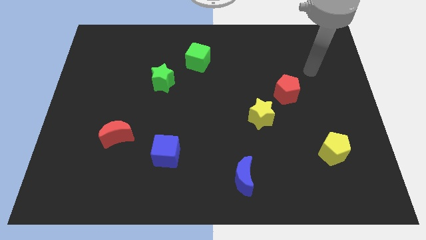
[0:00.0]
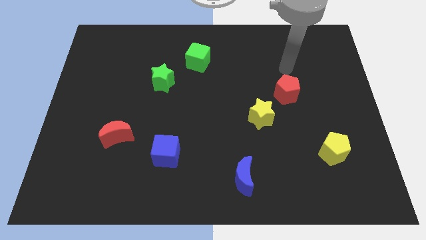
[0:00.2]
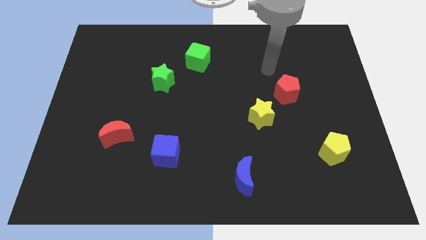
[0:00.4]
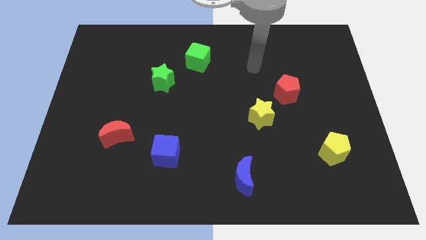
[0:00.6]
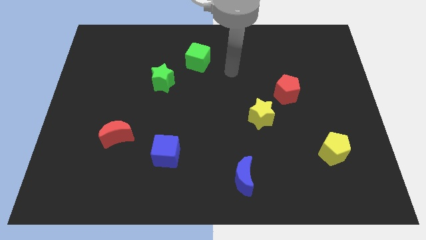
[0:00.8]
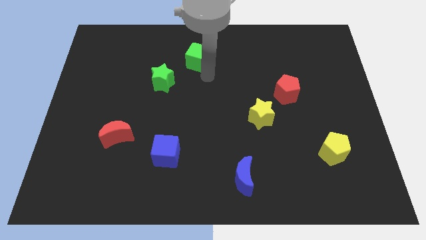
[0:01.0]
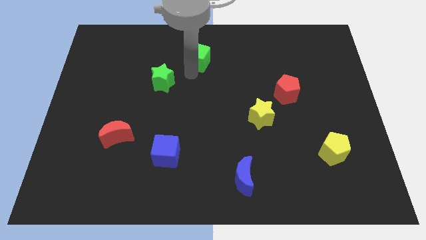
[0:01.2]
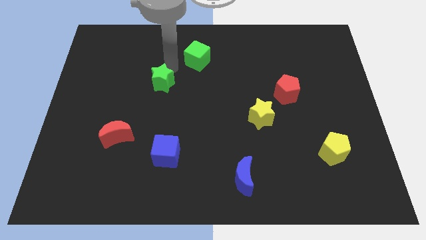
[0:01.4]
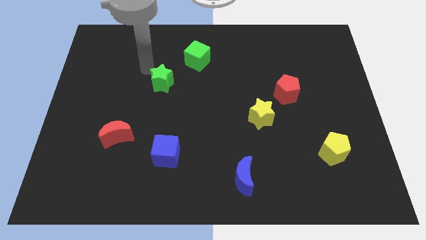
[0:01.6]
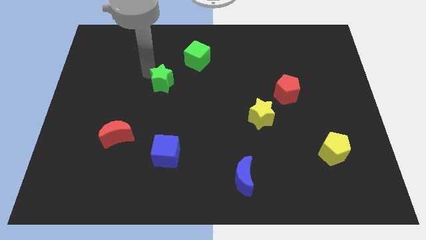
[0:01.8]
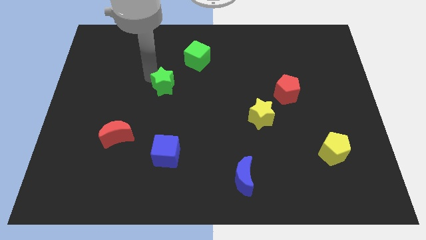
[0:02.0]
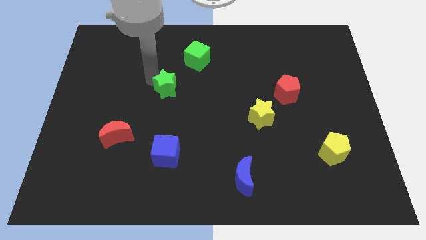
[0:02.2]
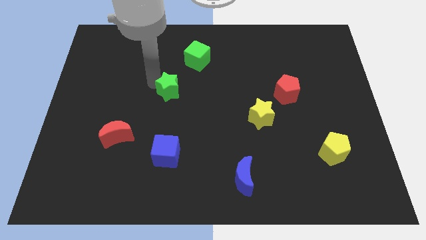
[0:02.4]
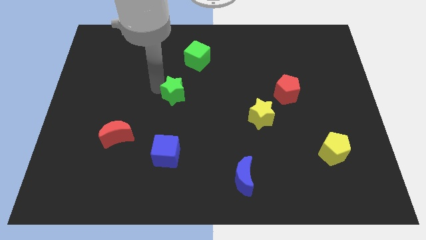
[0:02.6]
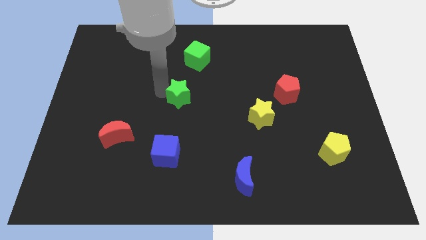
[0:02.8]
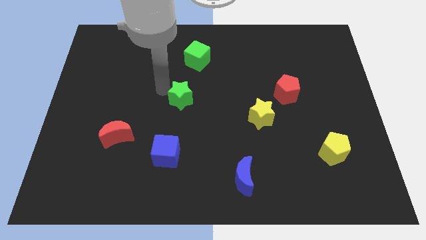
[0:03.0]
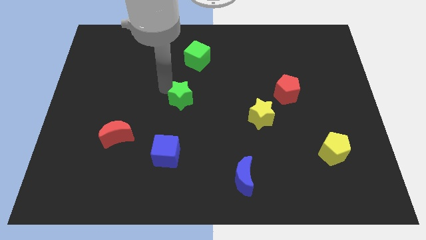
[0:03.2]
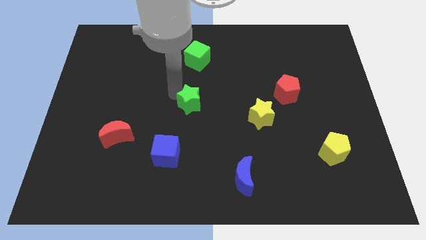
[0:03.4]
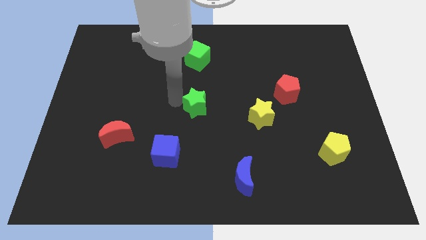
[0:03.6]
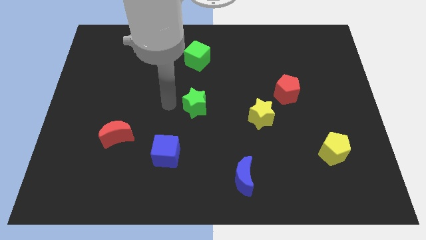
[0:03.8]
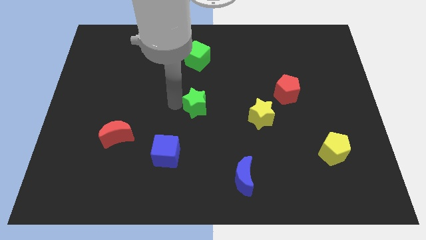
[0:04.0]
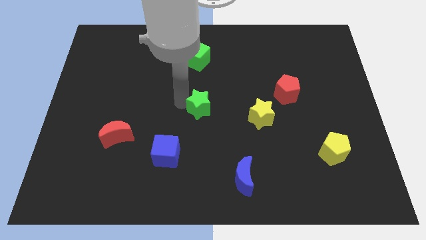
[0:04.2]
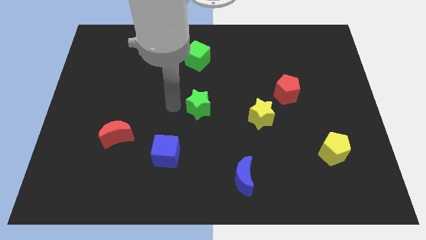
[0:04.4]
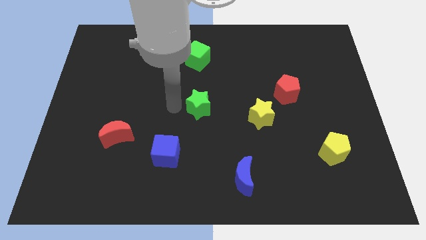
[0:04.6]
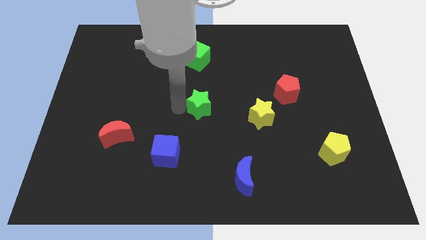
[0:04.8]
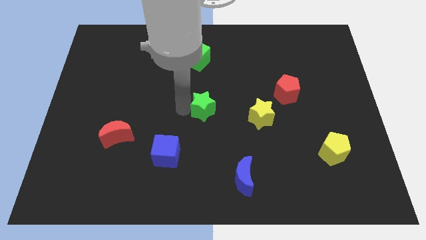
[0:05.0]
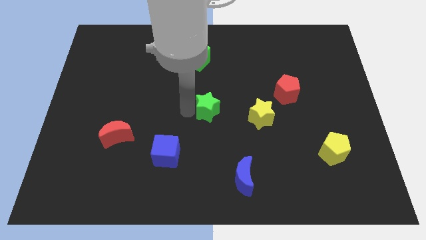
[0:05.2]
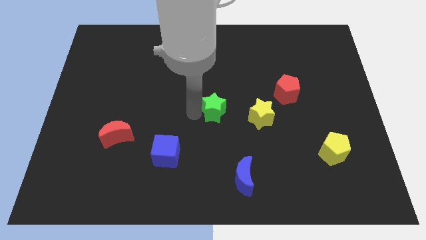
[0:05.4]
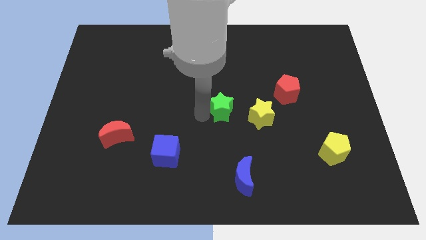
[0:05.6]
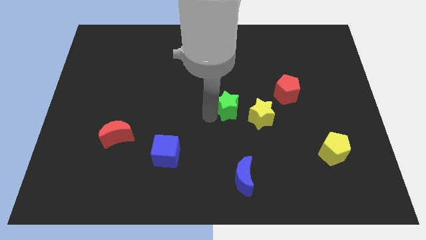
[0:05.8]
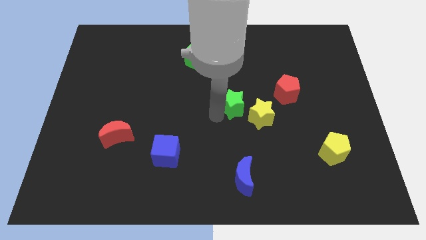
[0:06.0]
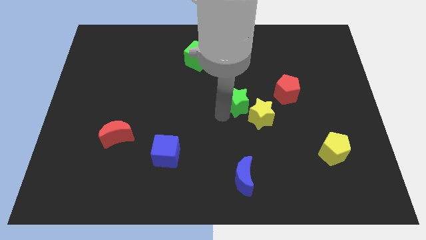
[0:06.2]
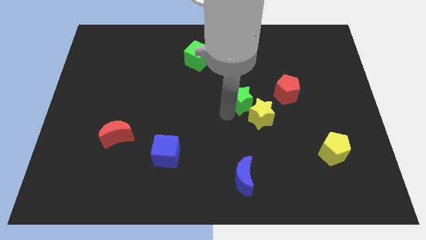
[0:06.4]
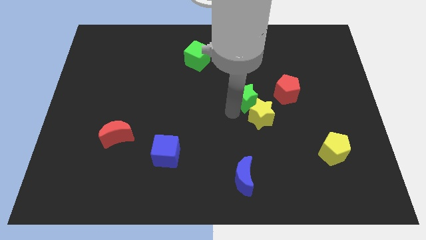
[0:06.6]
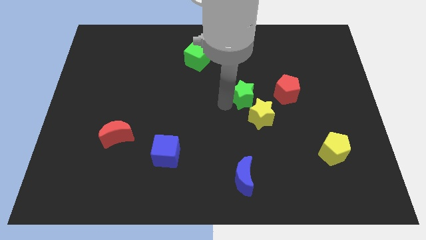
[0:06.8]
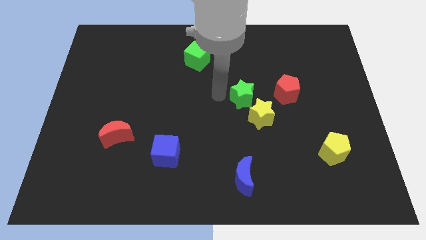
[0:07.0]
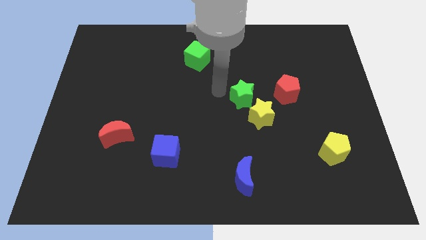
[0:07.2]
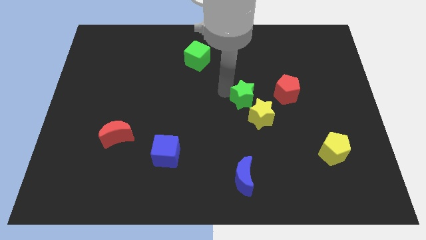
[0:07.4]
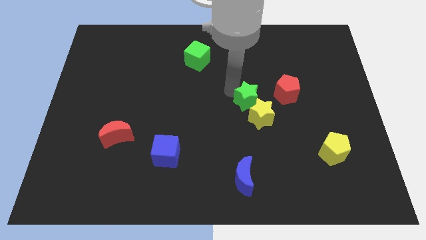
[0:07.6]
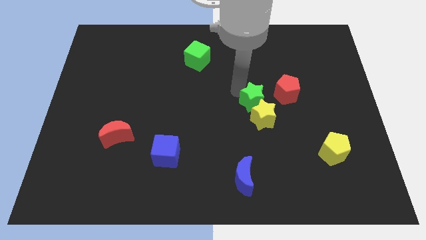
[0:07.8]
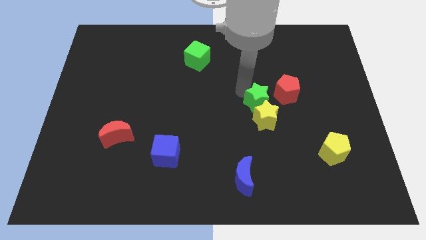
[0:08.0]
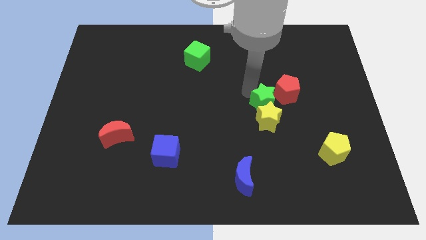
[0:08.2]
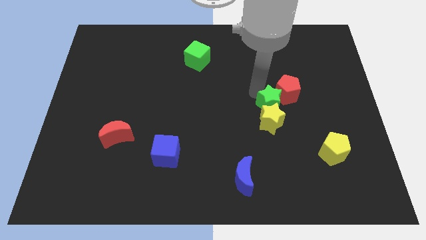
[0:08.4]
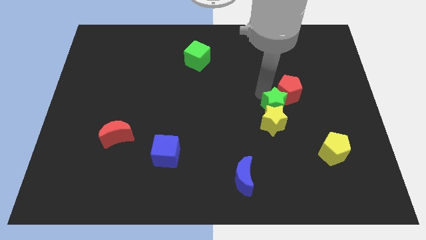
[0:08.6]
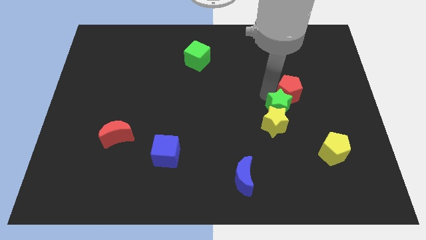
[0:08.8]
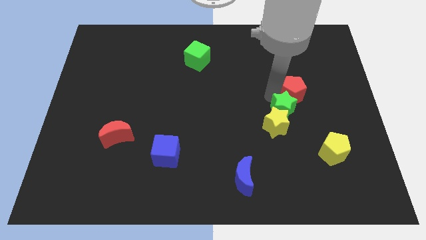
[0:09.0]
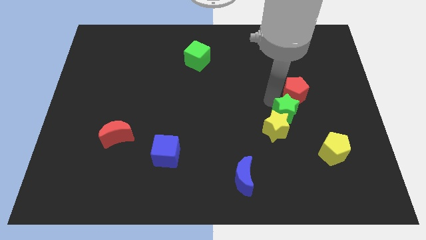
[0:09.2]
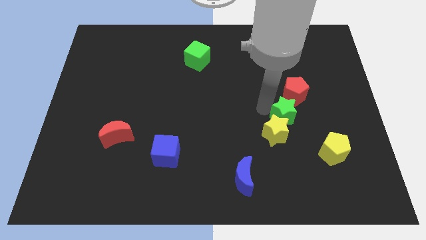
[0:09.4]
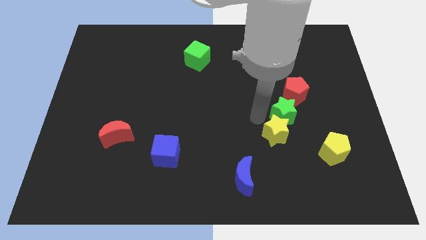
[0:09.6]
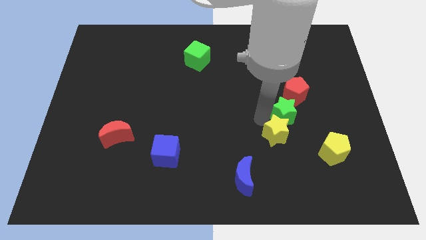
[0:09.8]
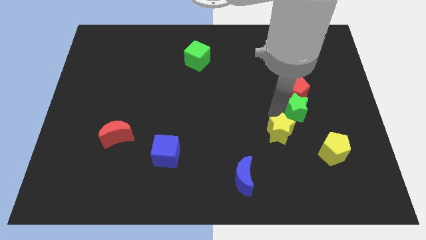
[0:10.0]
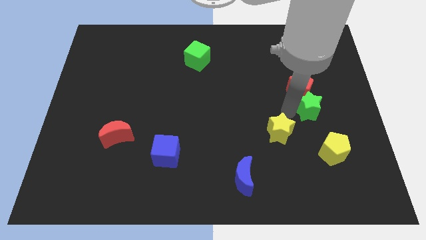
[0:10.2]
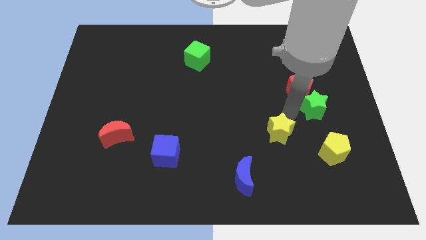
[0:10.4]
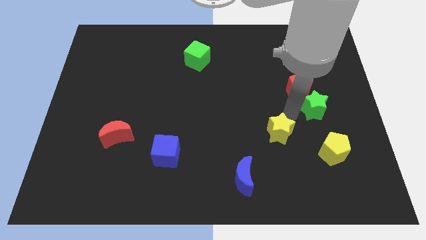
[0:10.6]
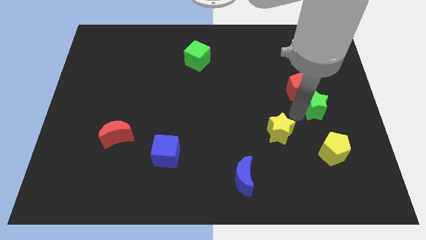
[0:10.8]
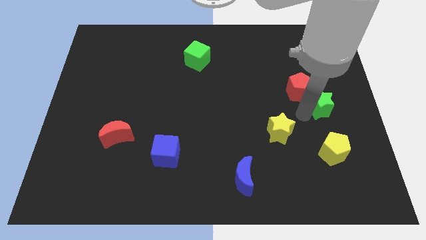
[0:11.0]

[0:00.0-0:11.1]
slide the green star to the center right
